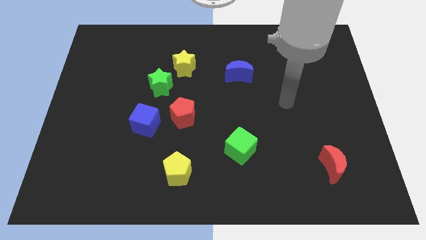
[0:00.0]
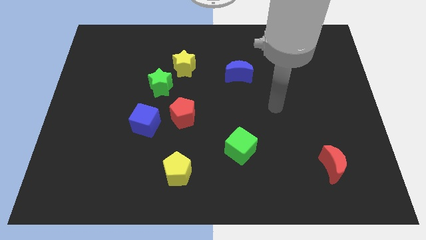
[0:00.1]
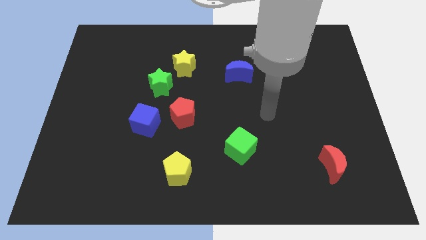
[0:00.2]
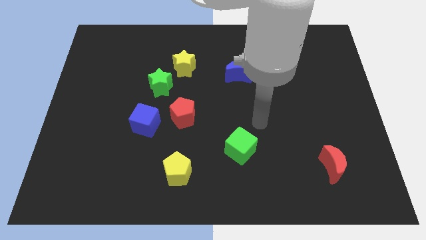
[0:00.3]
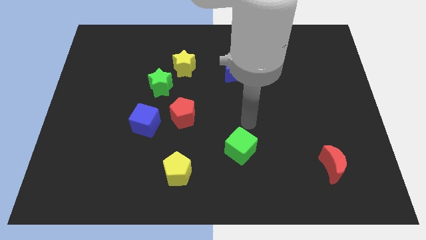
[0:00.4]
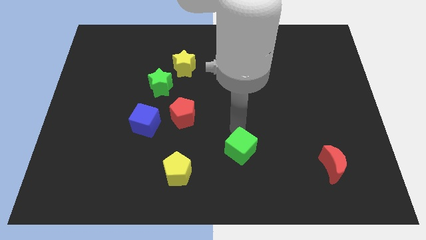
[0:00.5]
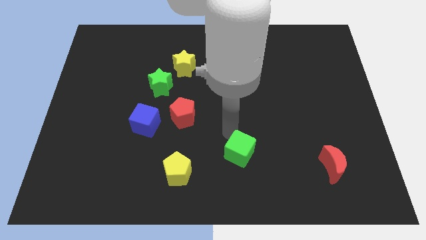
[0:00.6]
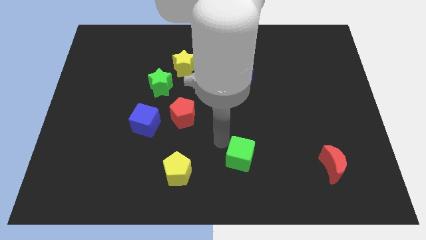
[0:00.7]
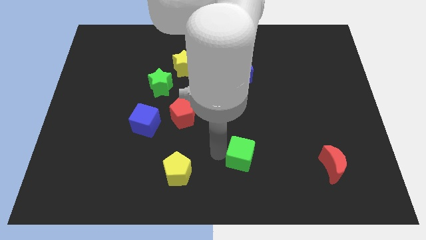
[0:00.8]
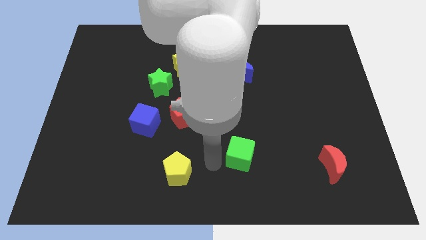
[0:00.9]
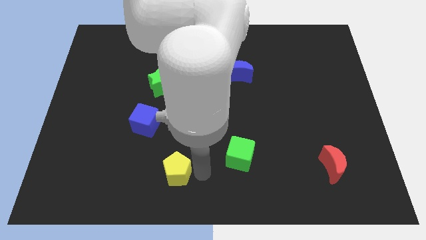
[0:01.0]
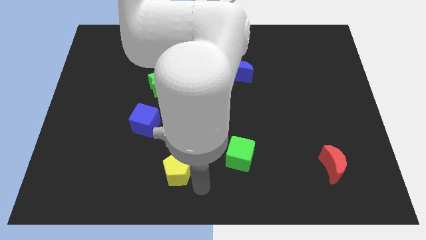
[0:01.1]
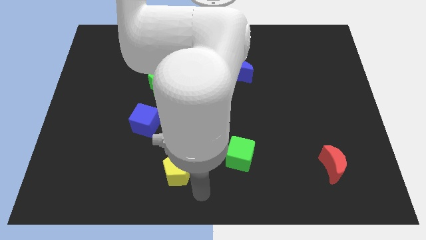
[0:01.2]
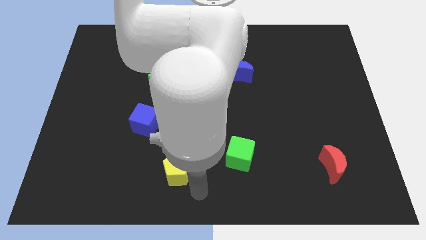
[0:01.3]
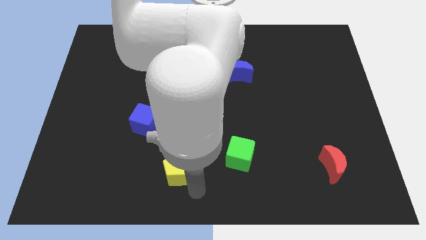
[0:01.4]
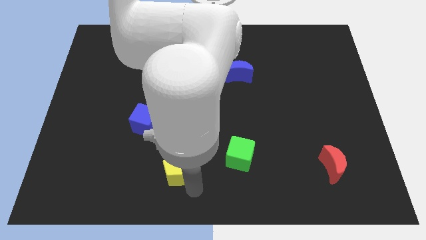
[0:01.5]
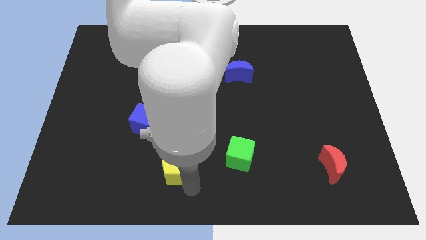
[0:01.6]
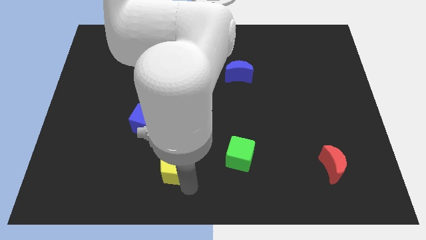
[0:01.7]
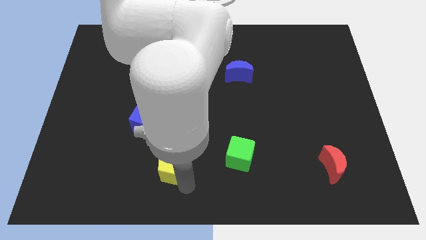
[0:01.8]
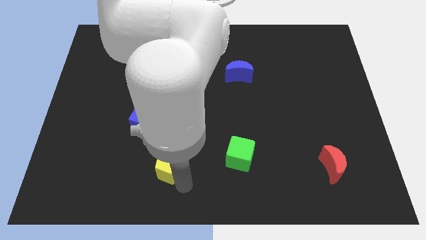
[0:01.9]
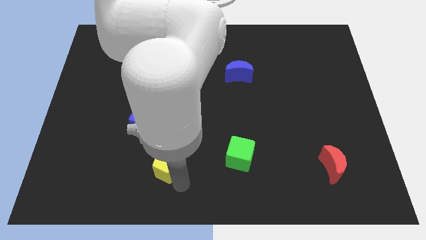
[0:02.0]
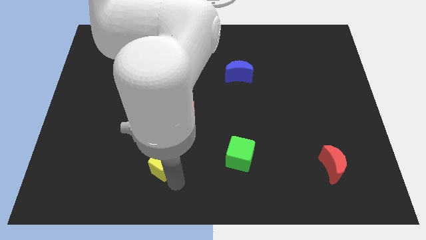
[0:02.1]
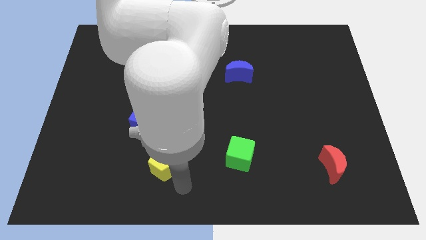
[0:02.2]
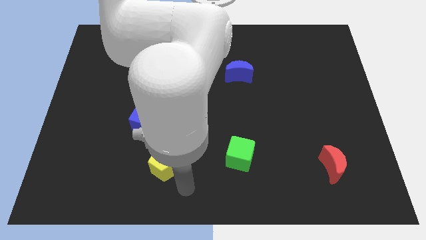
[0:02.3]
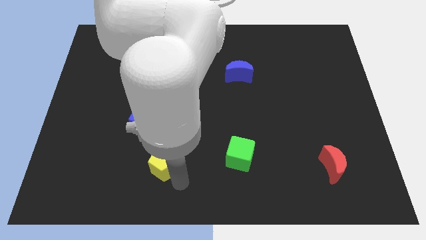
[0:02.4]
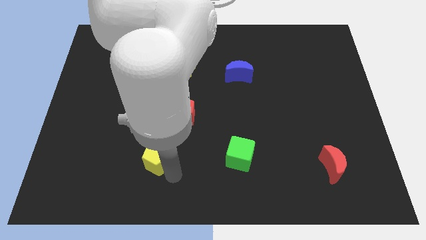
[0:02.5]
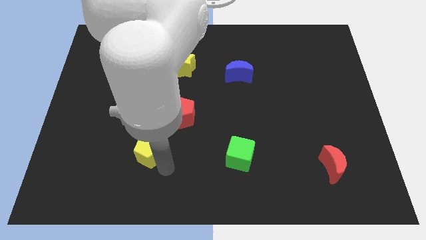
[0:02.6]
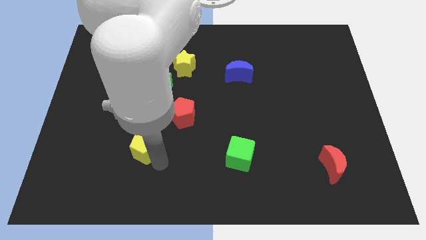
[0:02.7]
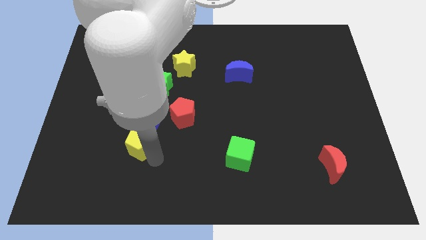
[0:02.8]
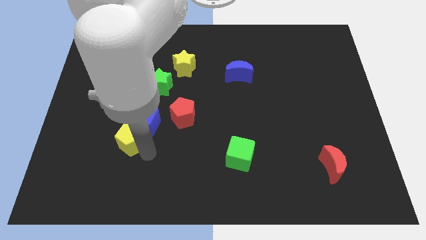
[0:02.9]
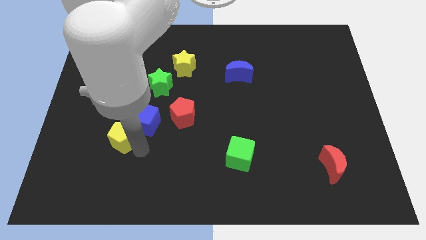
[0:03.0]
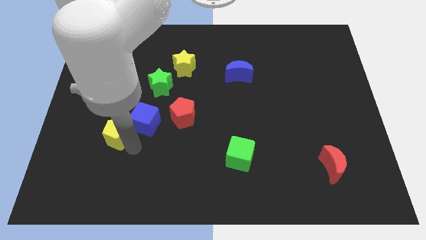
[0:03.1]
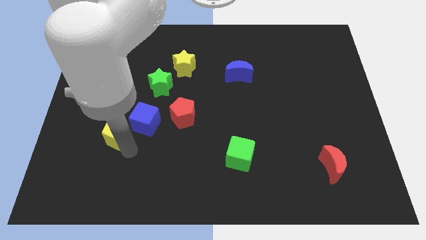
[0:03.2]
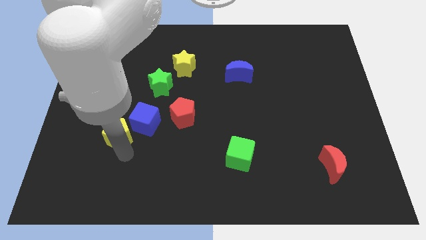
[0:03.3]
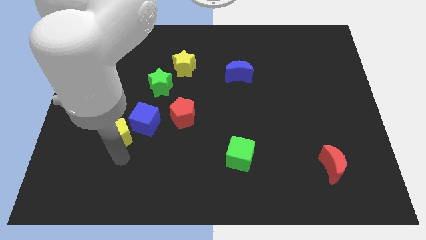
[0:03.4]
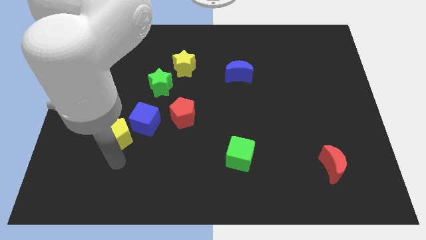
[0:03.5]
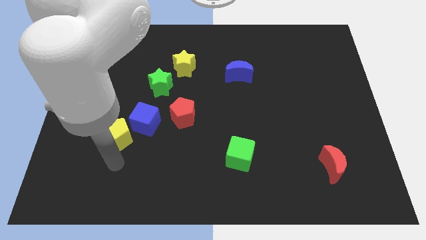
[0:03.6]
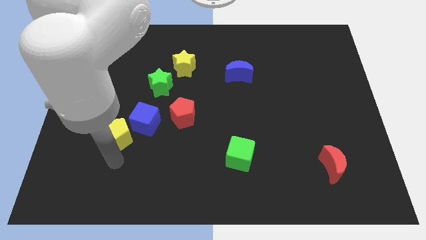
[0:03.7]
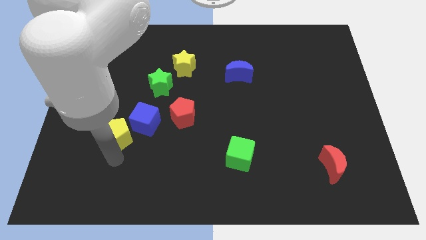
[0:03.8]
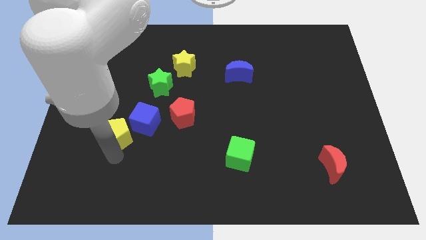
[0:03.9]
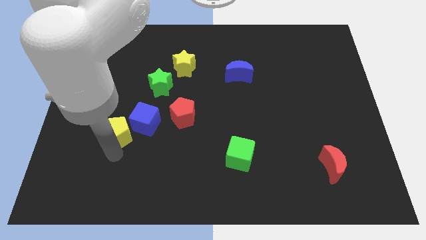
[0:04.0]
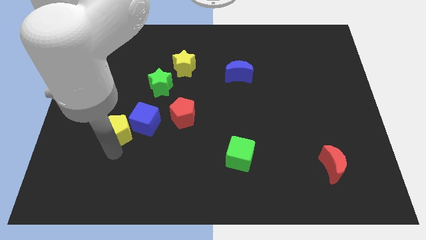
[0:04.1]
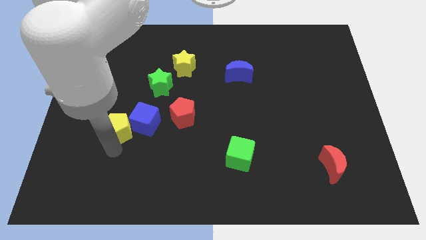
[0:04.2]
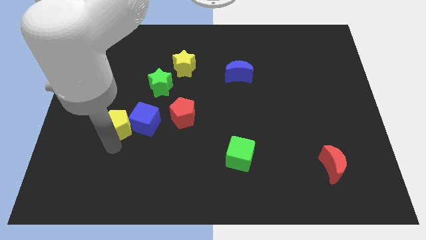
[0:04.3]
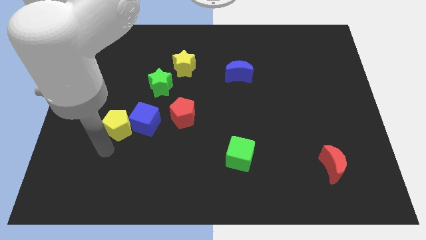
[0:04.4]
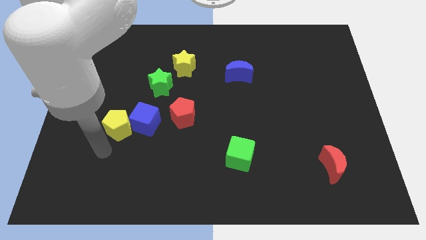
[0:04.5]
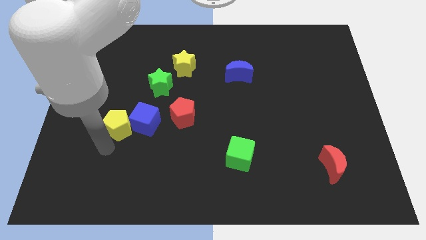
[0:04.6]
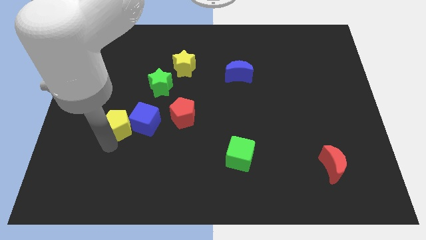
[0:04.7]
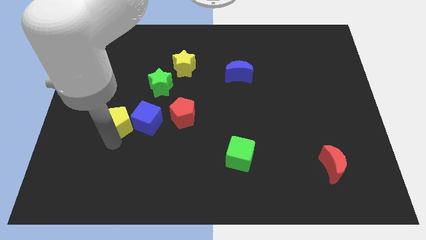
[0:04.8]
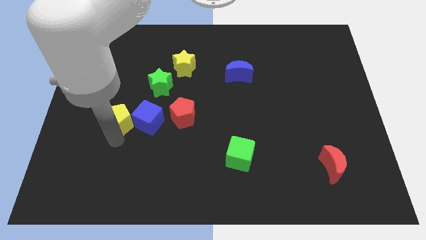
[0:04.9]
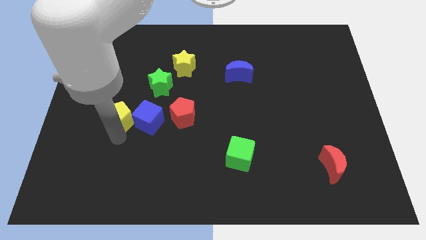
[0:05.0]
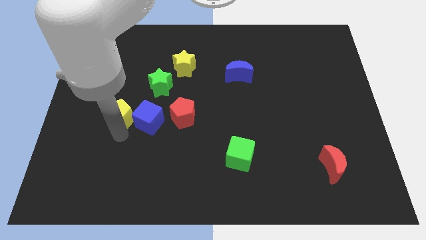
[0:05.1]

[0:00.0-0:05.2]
move the yellow pentagon to the bottom left side of the green star

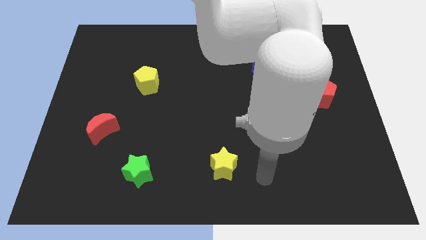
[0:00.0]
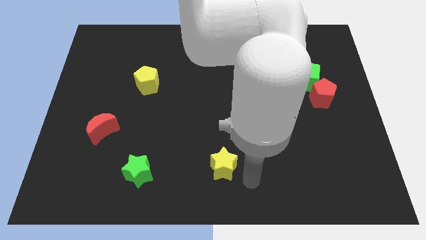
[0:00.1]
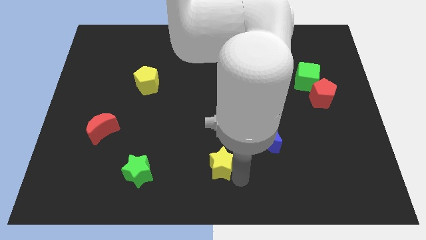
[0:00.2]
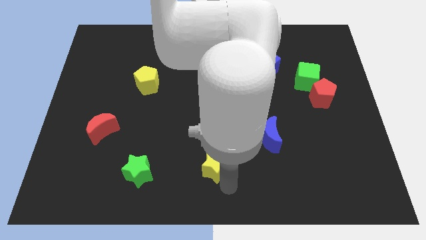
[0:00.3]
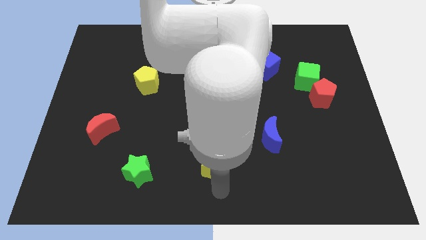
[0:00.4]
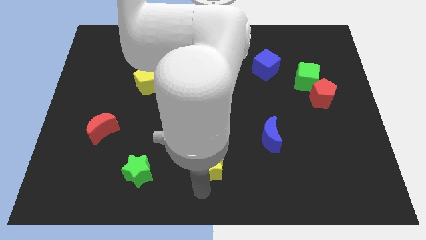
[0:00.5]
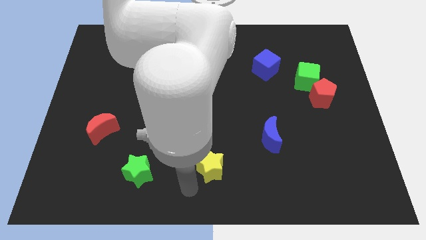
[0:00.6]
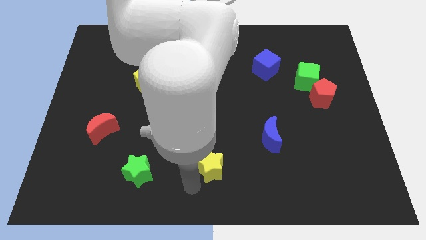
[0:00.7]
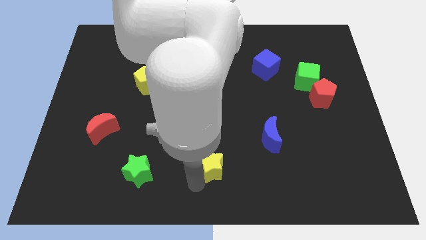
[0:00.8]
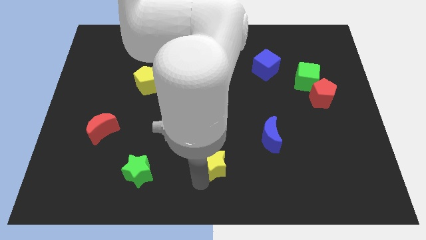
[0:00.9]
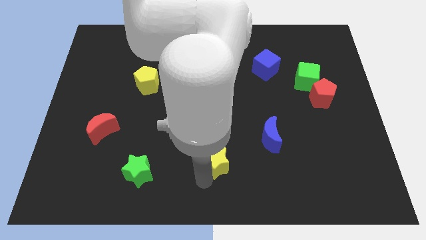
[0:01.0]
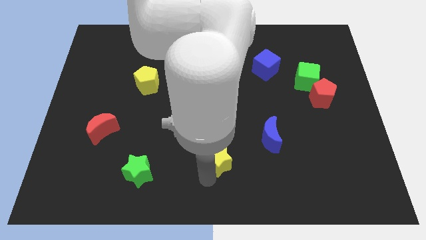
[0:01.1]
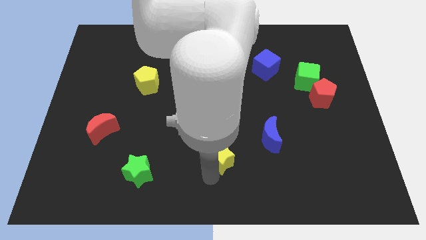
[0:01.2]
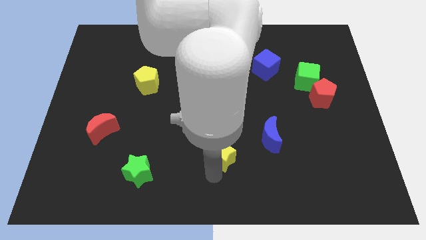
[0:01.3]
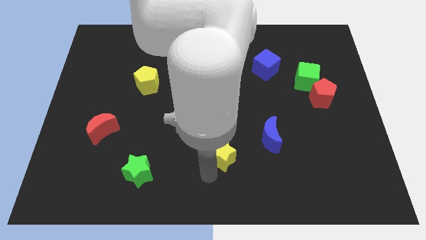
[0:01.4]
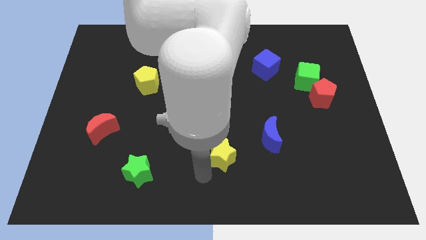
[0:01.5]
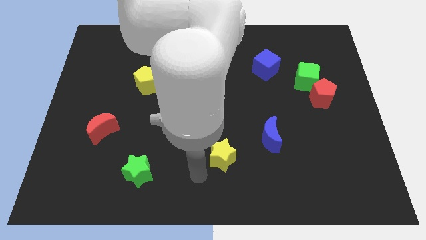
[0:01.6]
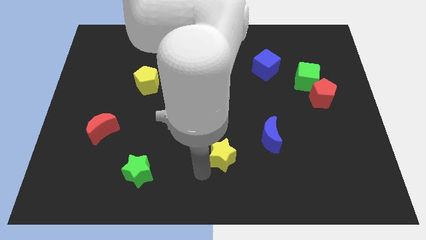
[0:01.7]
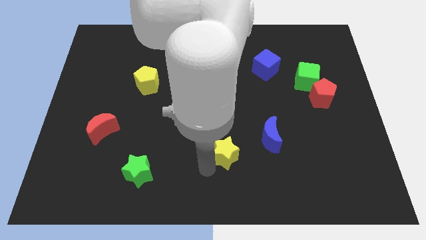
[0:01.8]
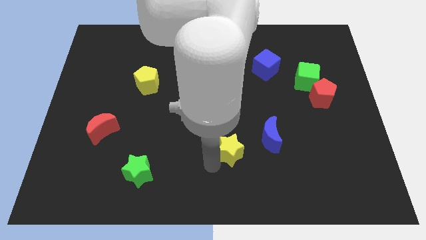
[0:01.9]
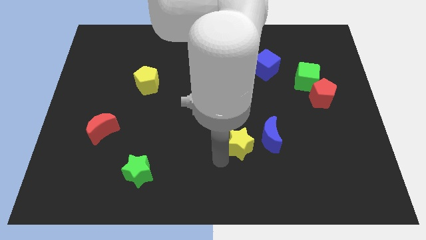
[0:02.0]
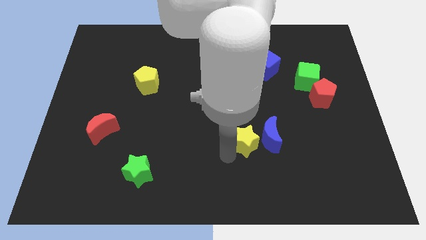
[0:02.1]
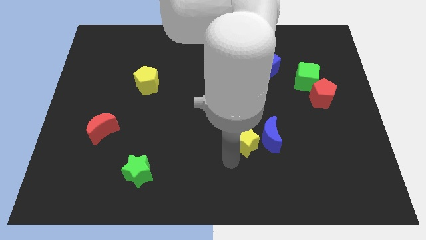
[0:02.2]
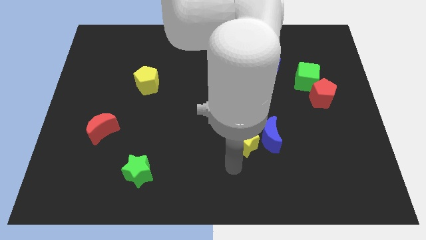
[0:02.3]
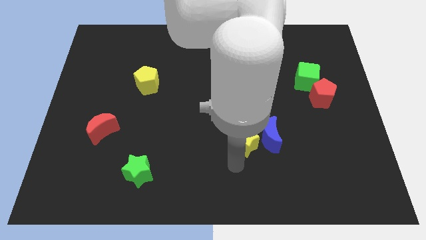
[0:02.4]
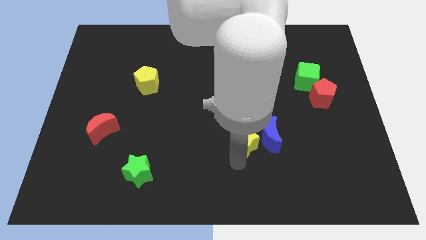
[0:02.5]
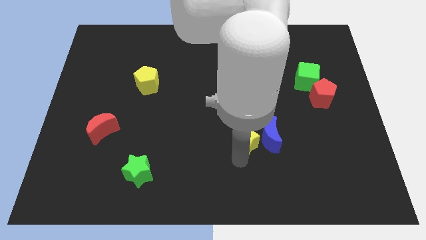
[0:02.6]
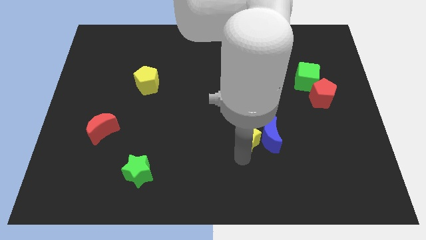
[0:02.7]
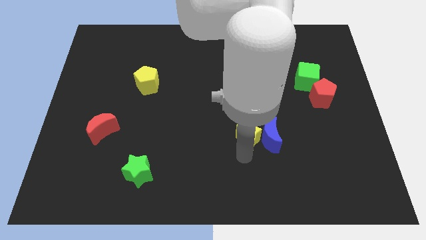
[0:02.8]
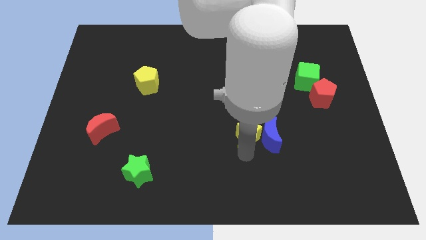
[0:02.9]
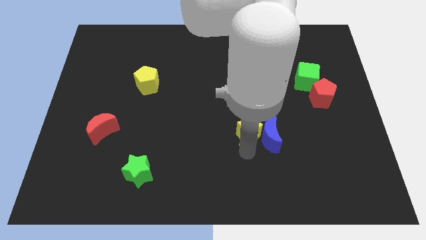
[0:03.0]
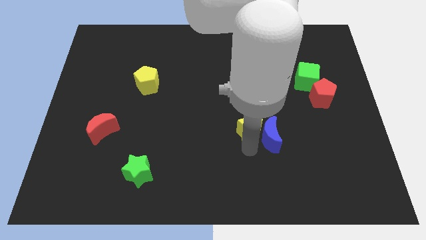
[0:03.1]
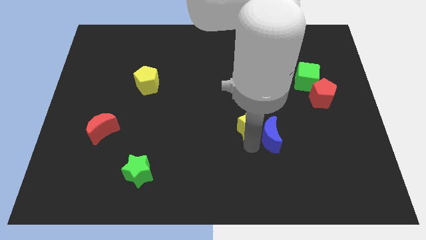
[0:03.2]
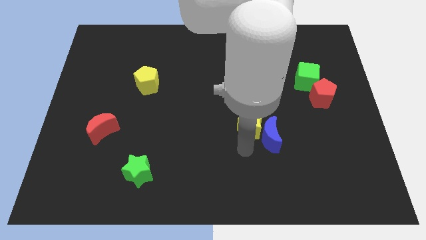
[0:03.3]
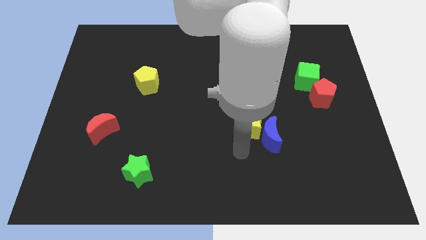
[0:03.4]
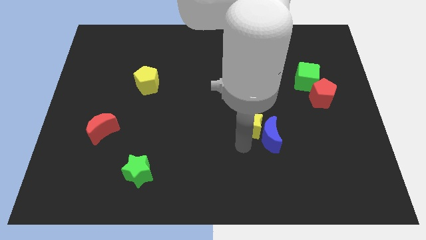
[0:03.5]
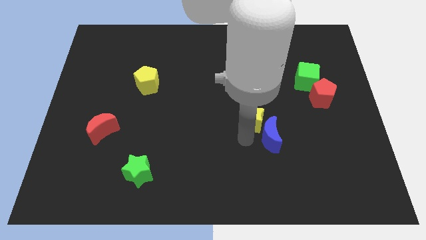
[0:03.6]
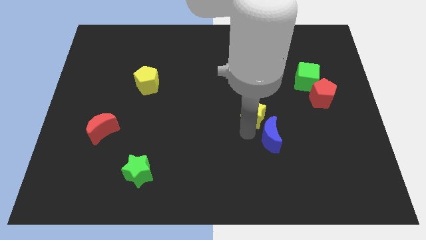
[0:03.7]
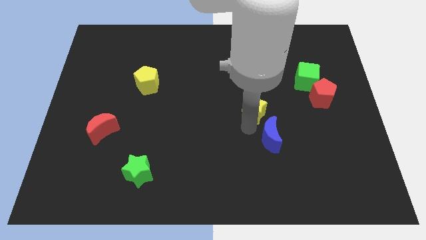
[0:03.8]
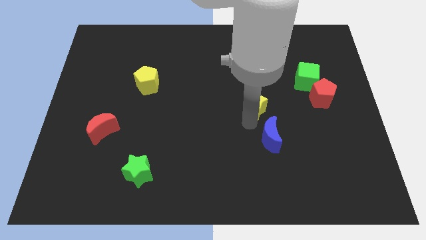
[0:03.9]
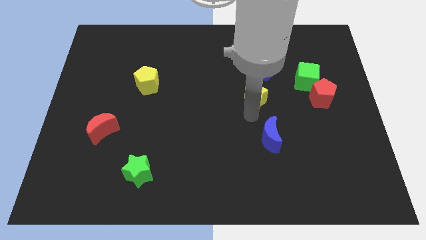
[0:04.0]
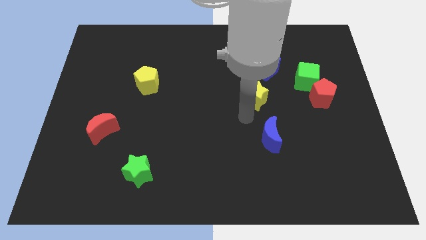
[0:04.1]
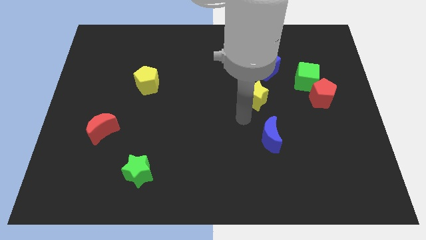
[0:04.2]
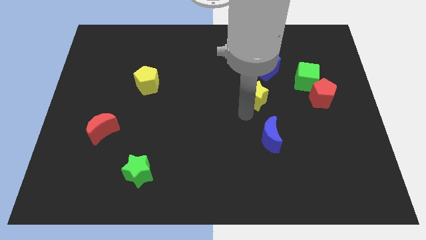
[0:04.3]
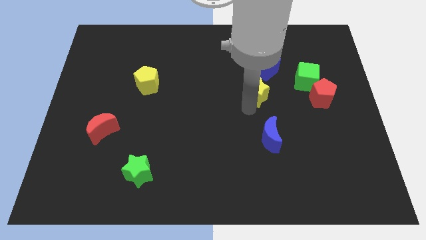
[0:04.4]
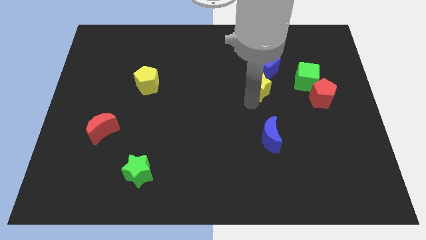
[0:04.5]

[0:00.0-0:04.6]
move the yellow star to the left side of the green cube
